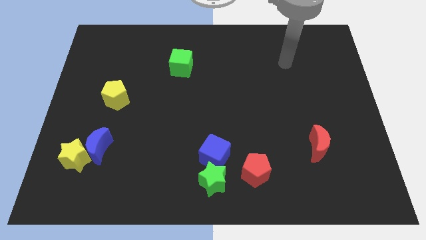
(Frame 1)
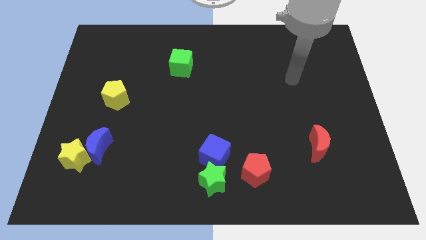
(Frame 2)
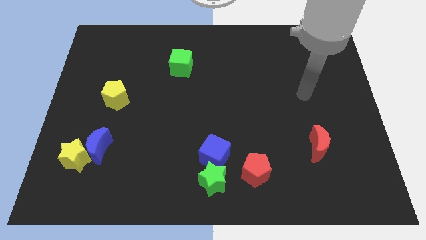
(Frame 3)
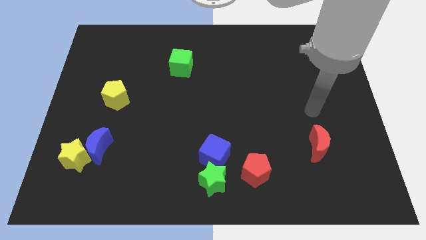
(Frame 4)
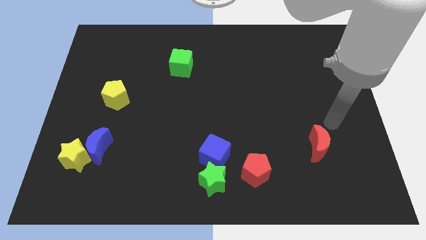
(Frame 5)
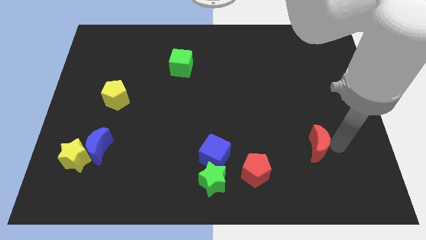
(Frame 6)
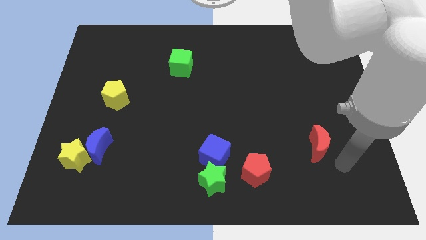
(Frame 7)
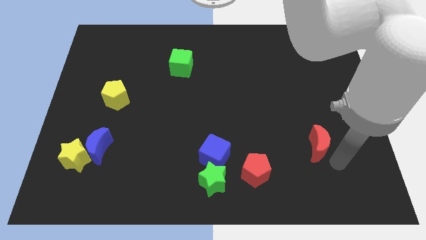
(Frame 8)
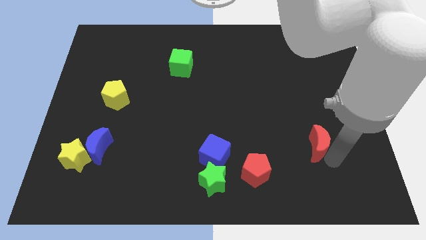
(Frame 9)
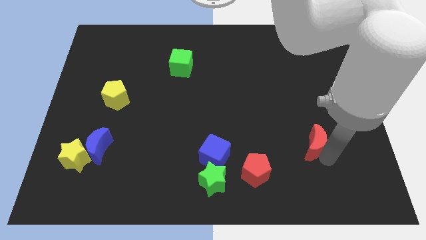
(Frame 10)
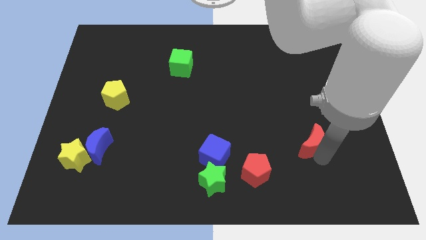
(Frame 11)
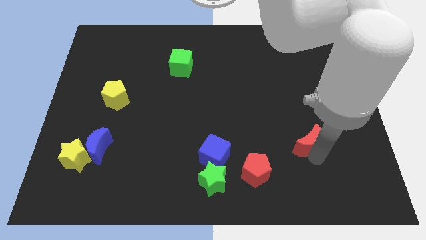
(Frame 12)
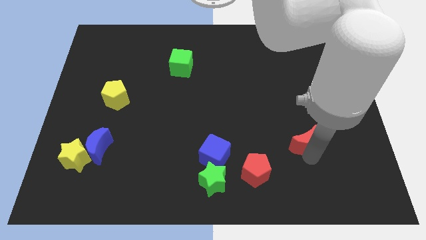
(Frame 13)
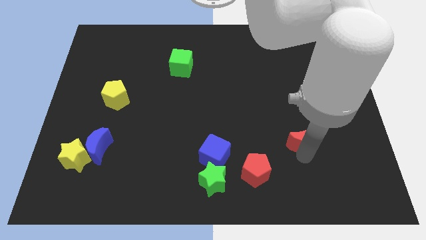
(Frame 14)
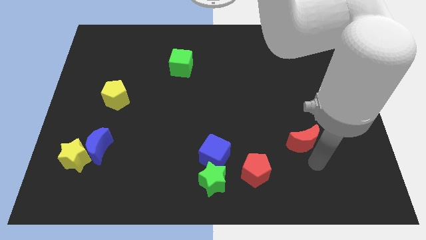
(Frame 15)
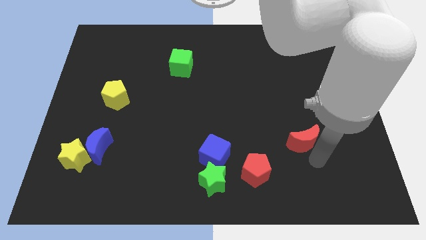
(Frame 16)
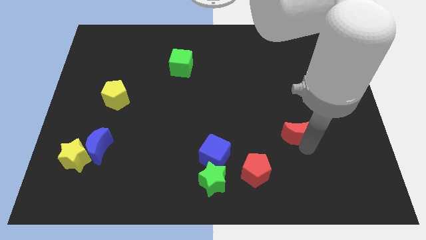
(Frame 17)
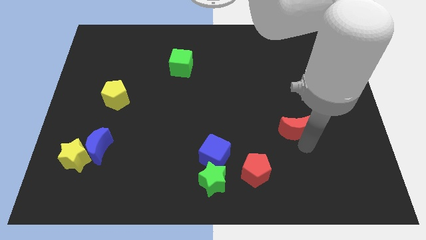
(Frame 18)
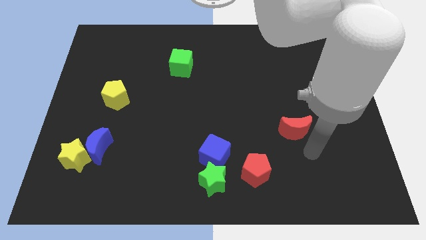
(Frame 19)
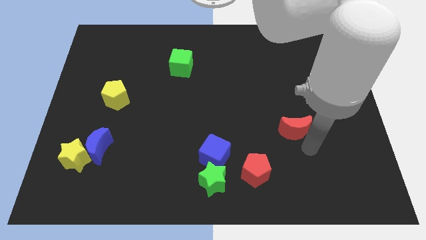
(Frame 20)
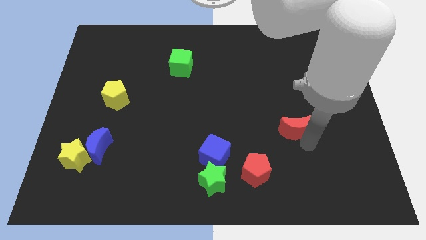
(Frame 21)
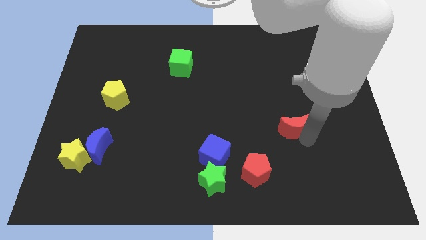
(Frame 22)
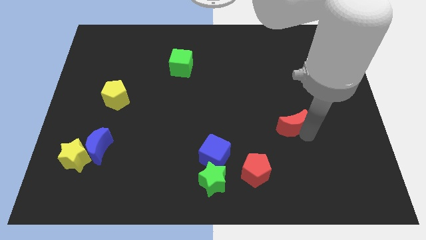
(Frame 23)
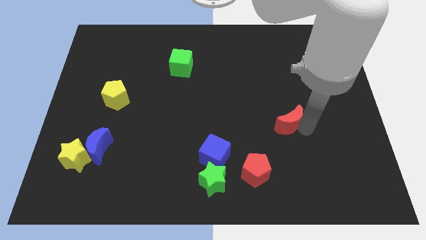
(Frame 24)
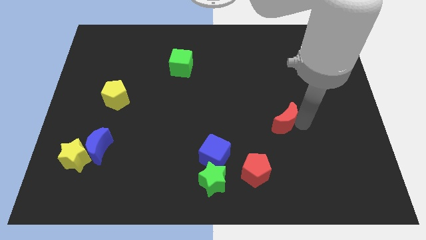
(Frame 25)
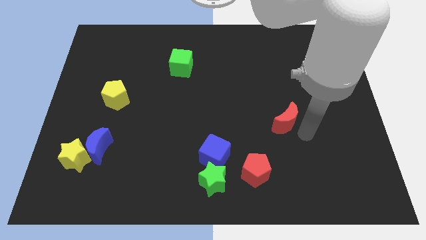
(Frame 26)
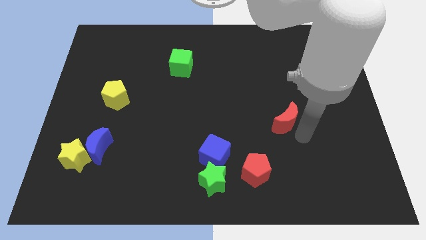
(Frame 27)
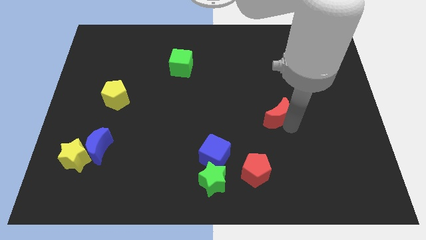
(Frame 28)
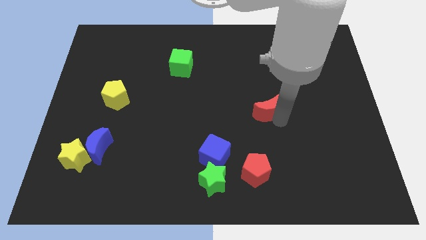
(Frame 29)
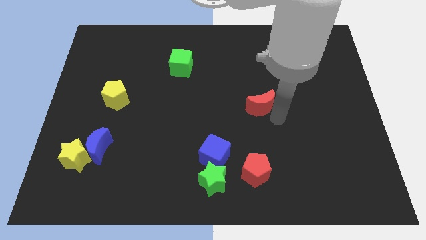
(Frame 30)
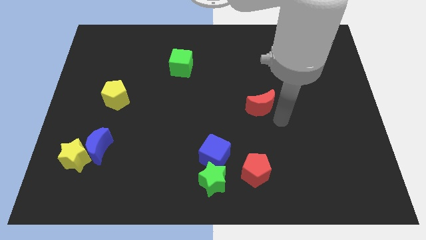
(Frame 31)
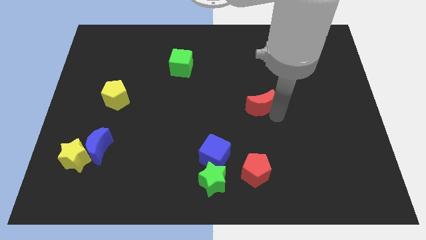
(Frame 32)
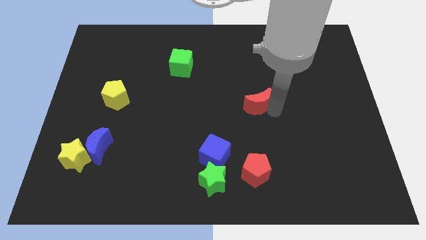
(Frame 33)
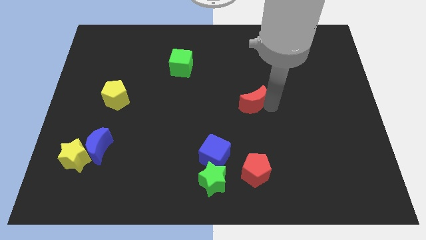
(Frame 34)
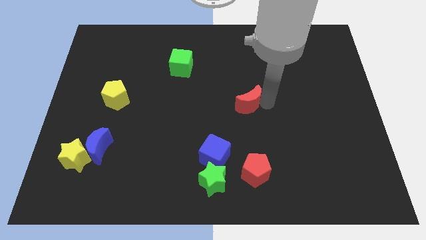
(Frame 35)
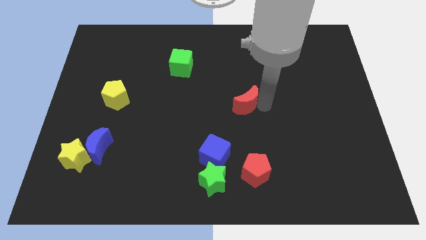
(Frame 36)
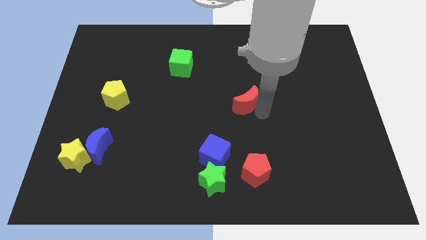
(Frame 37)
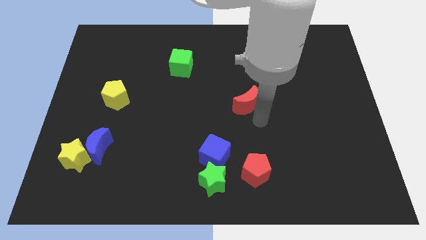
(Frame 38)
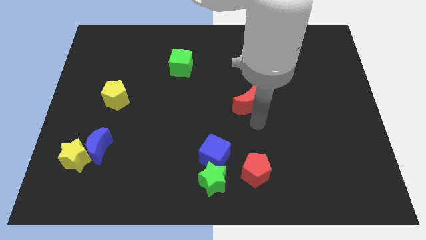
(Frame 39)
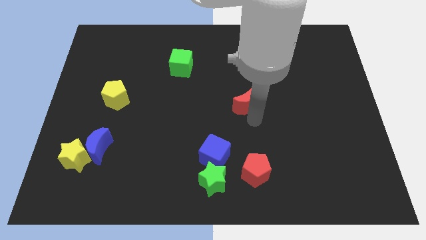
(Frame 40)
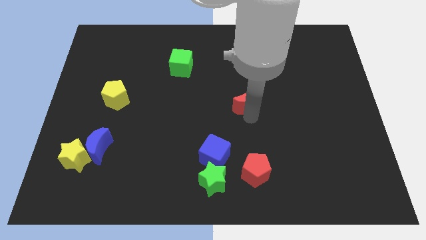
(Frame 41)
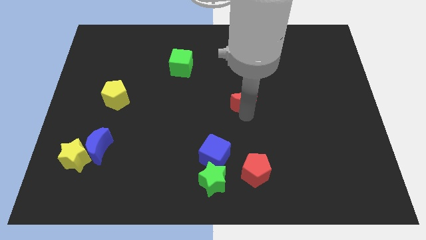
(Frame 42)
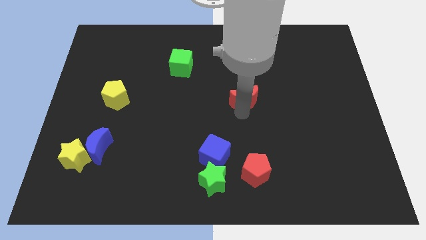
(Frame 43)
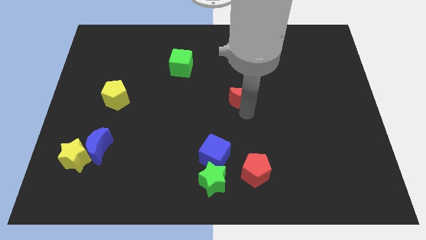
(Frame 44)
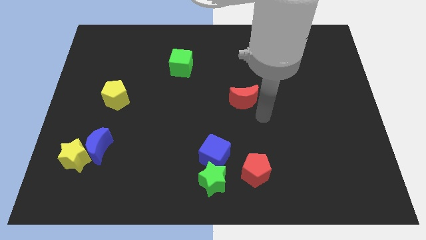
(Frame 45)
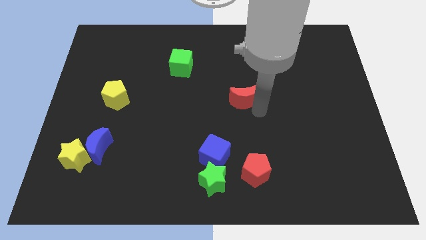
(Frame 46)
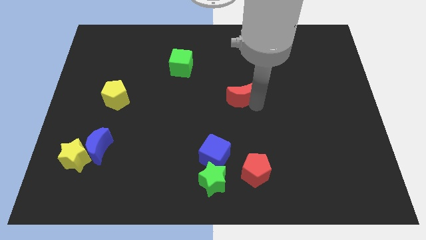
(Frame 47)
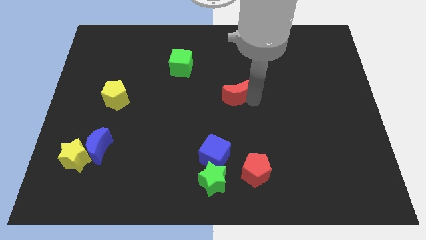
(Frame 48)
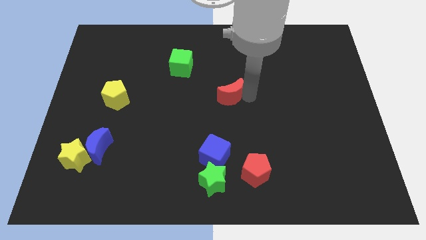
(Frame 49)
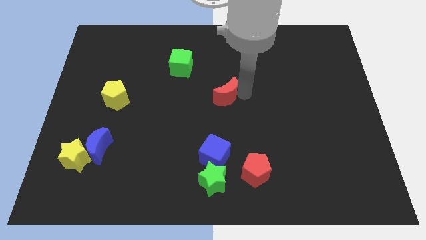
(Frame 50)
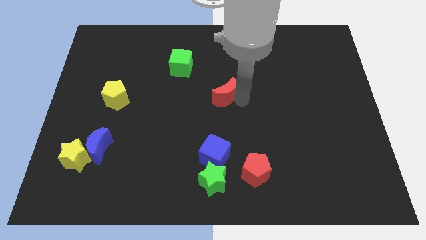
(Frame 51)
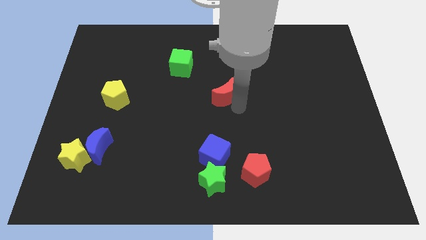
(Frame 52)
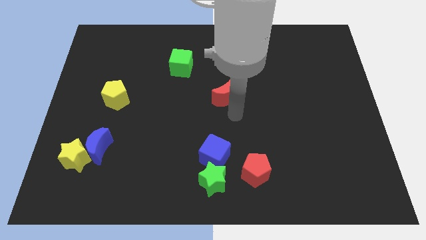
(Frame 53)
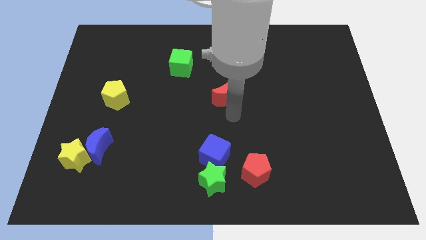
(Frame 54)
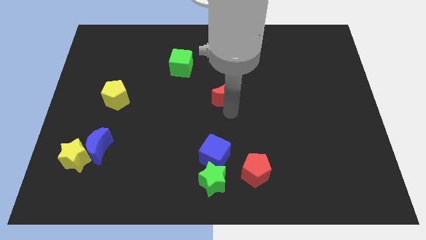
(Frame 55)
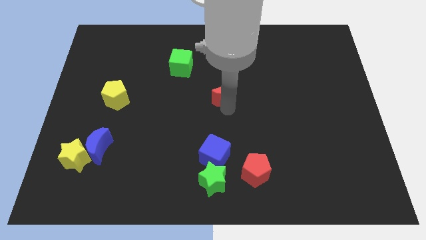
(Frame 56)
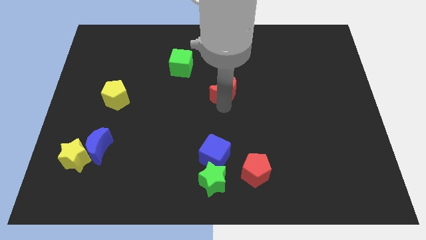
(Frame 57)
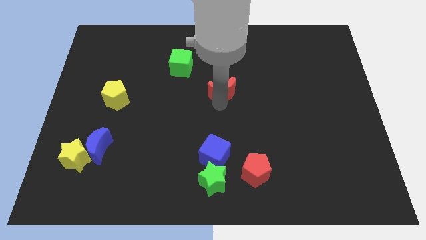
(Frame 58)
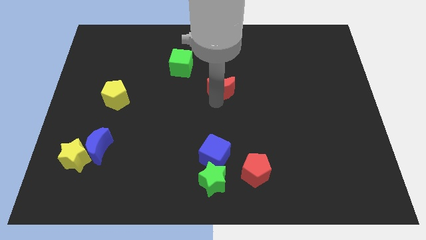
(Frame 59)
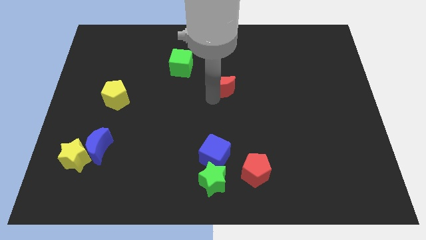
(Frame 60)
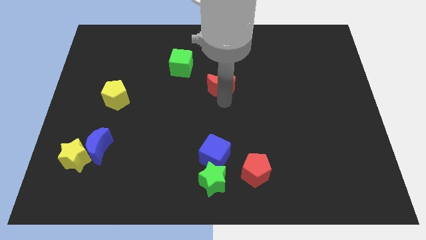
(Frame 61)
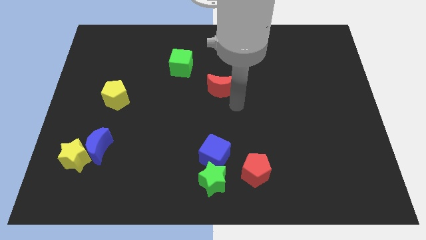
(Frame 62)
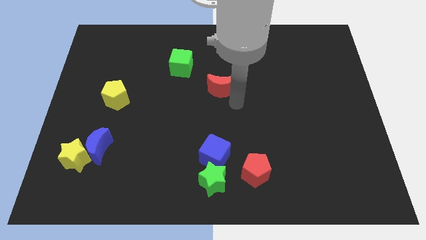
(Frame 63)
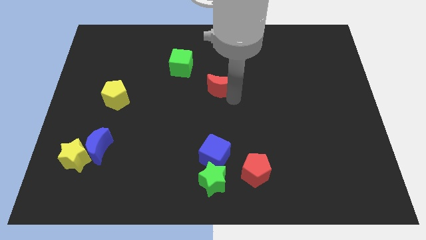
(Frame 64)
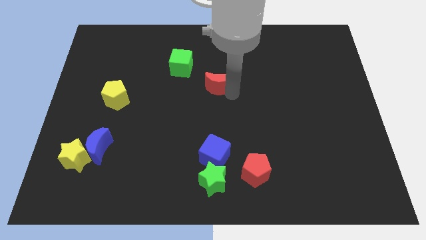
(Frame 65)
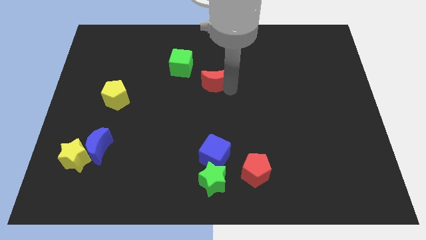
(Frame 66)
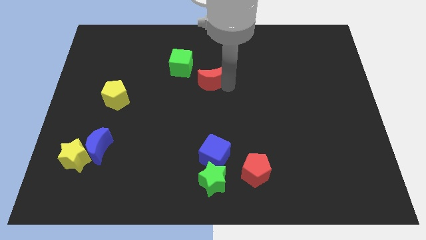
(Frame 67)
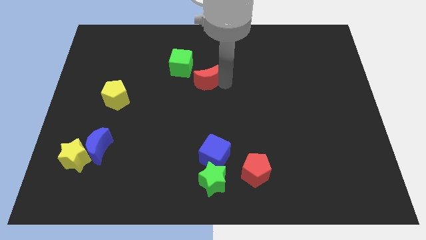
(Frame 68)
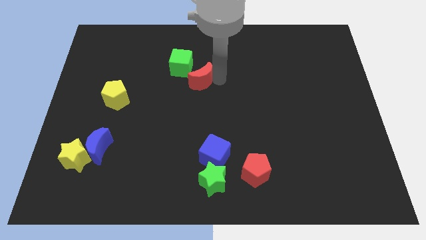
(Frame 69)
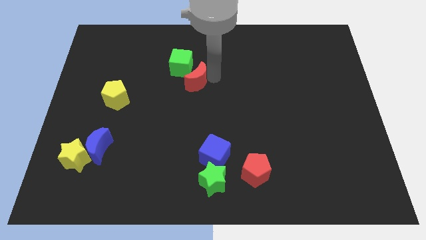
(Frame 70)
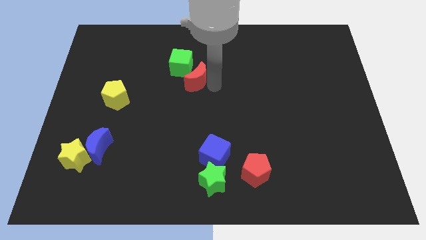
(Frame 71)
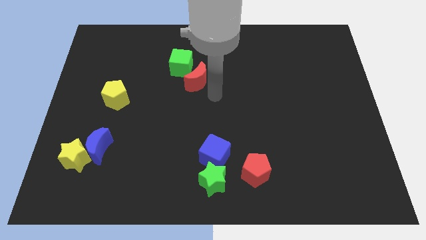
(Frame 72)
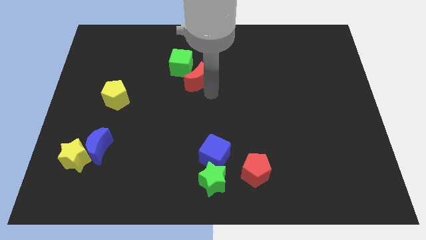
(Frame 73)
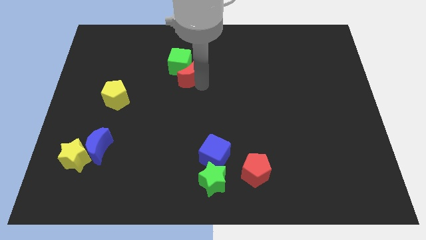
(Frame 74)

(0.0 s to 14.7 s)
slide the red moon next to the green cube

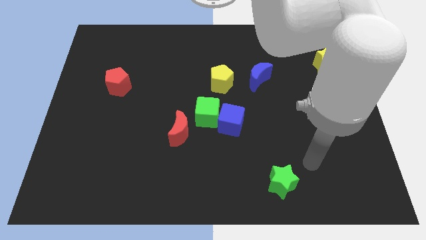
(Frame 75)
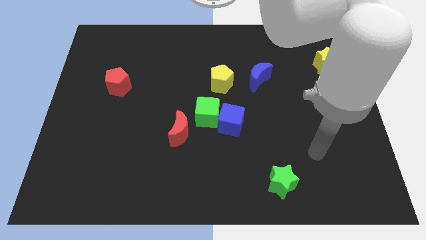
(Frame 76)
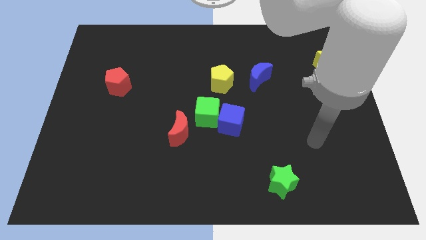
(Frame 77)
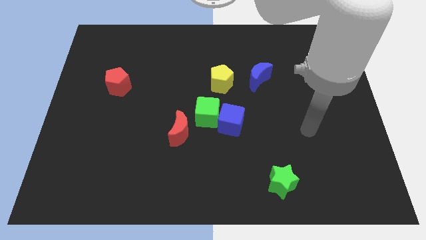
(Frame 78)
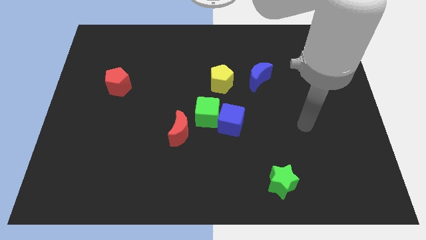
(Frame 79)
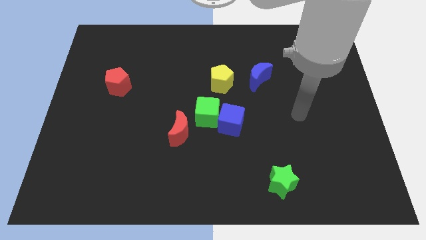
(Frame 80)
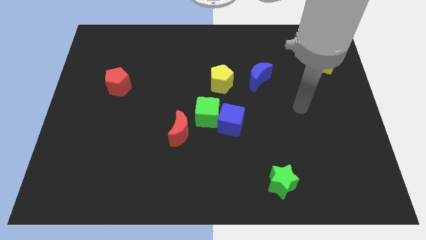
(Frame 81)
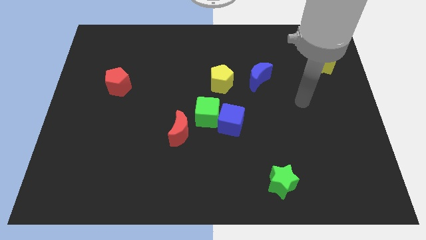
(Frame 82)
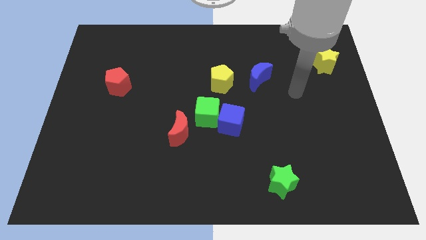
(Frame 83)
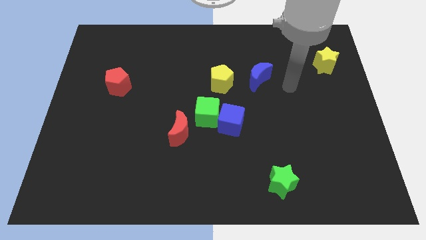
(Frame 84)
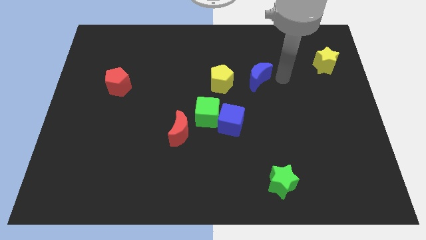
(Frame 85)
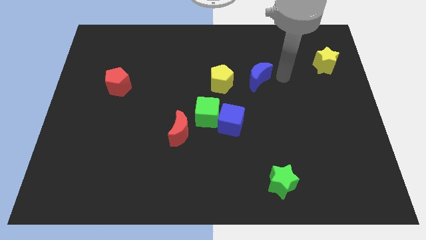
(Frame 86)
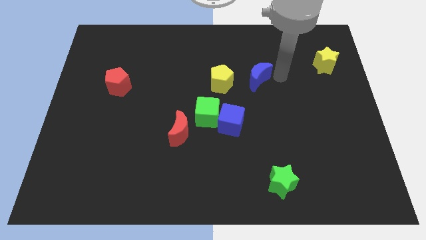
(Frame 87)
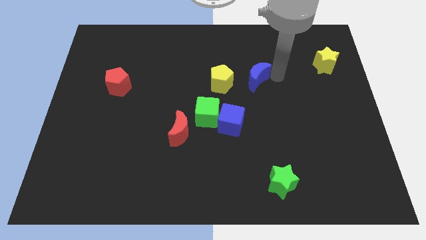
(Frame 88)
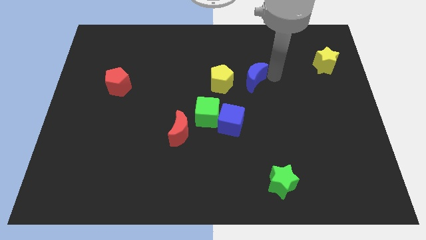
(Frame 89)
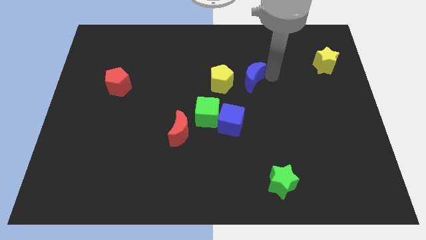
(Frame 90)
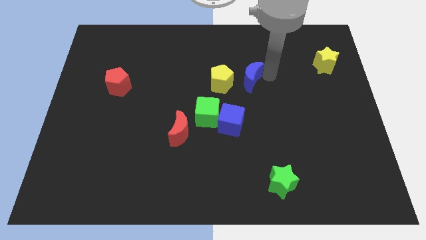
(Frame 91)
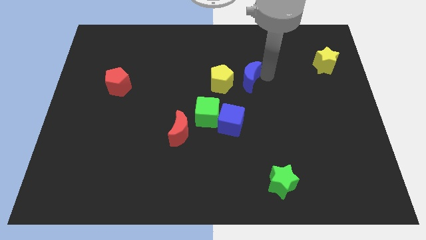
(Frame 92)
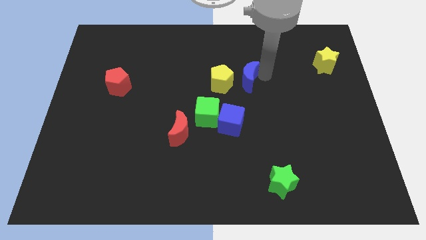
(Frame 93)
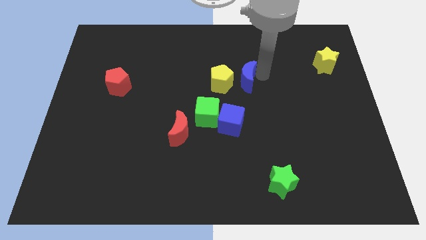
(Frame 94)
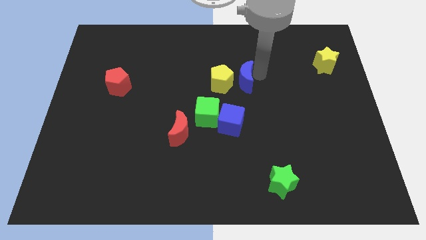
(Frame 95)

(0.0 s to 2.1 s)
slide the blue moon to the yellow pentagon
